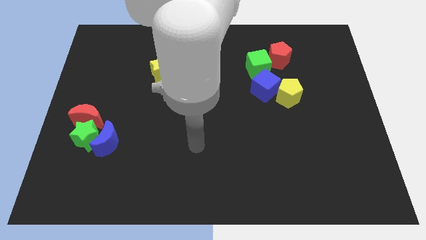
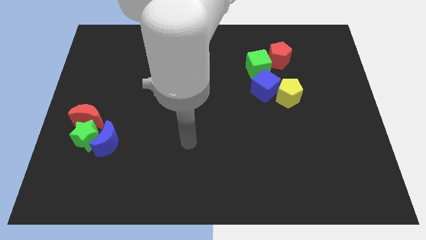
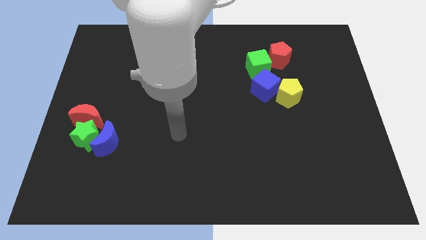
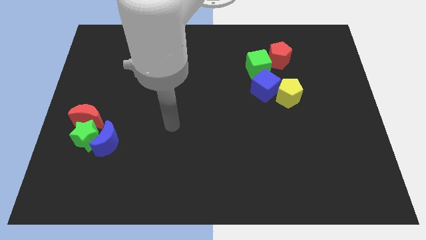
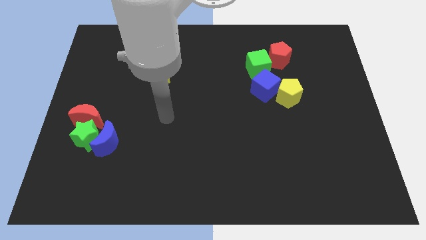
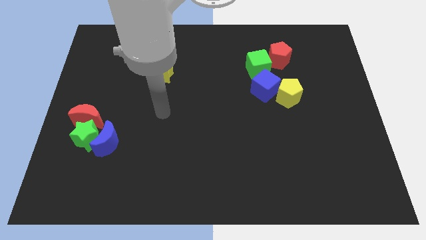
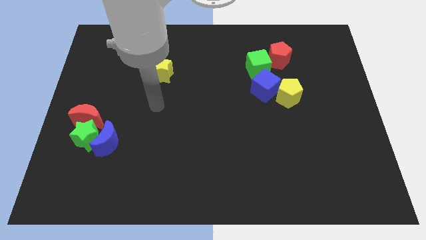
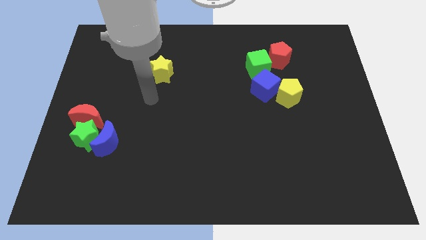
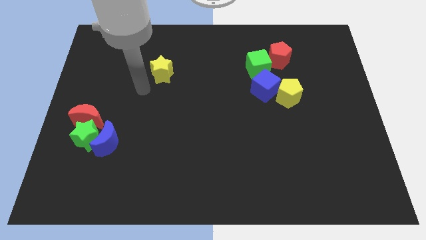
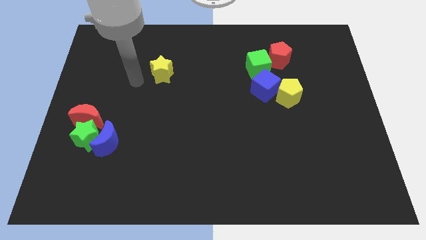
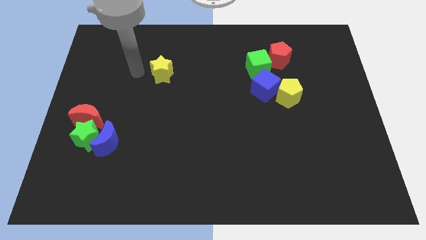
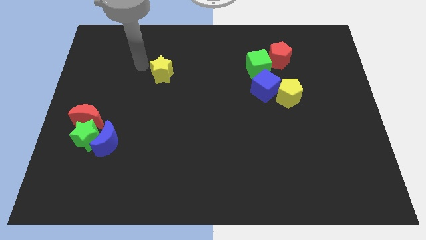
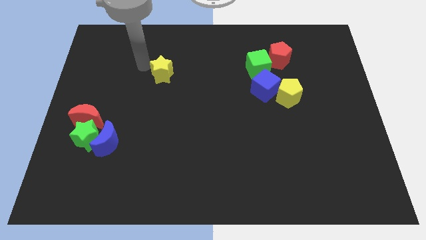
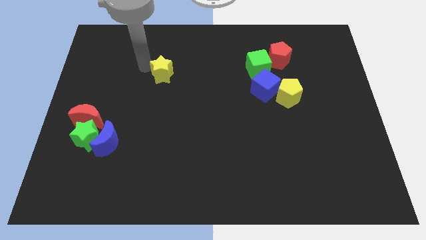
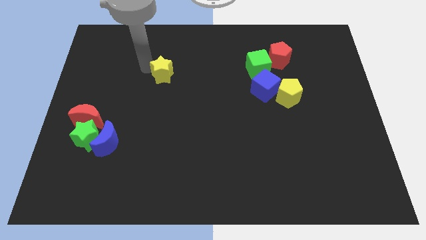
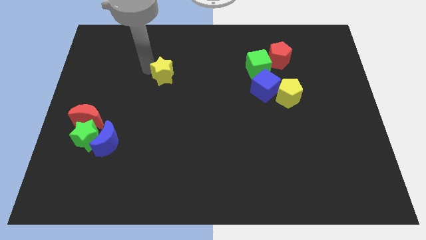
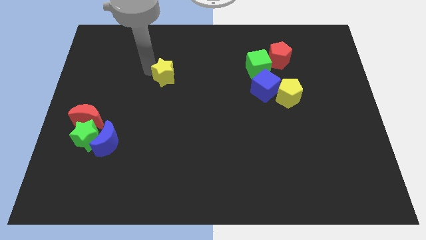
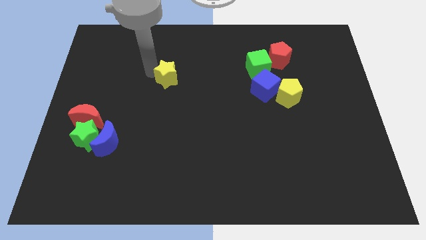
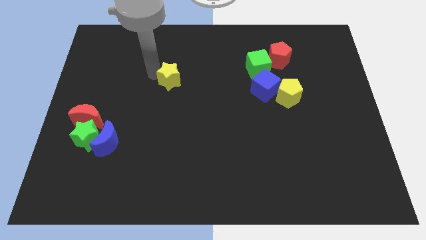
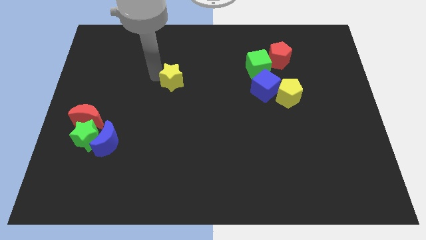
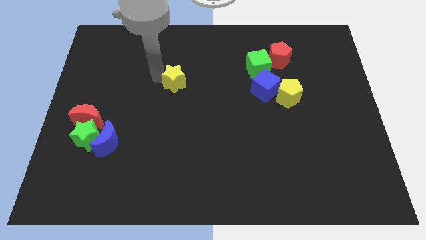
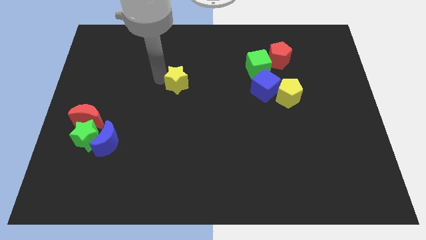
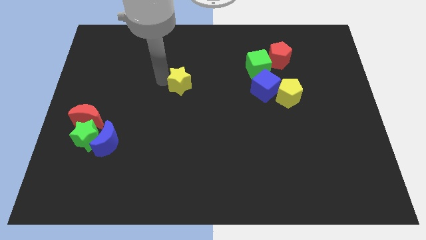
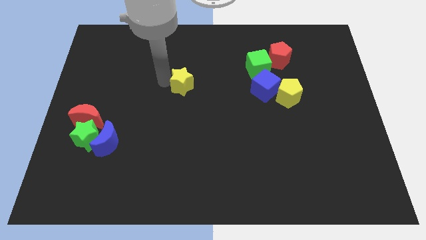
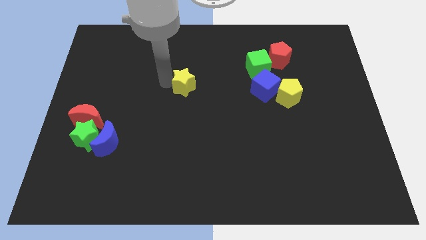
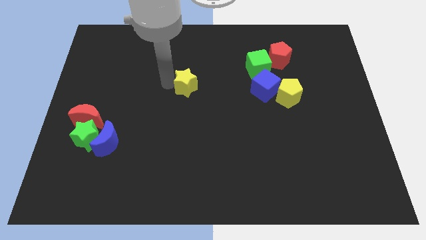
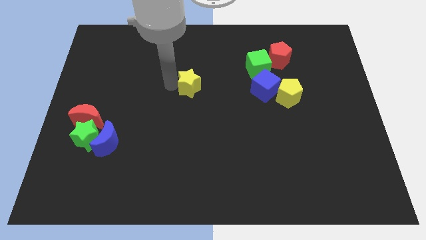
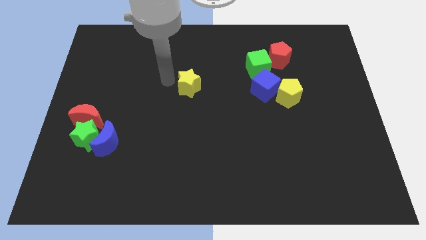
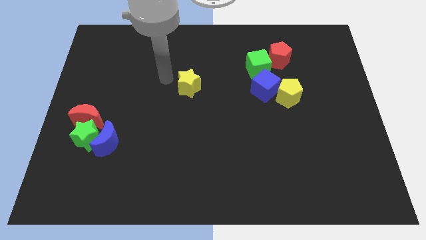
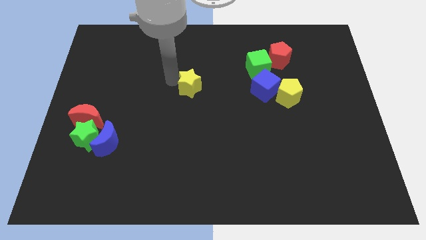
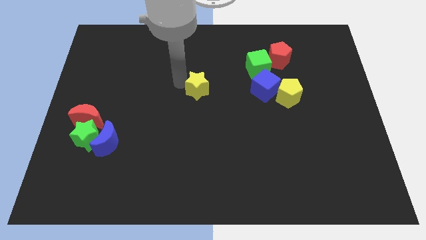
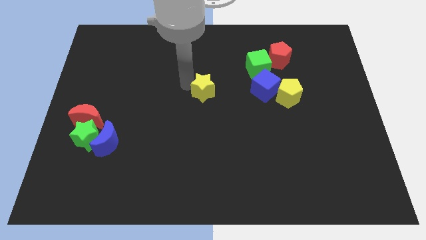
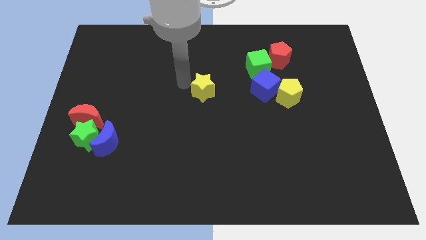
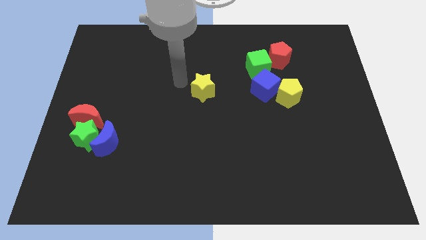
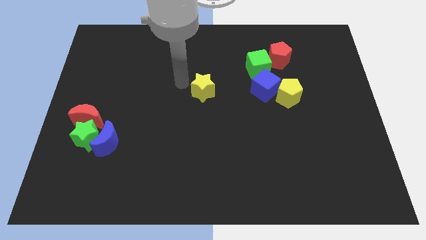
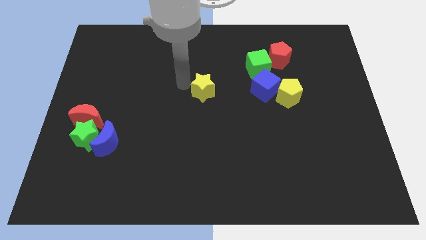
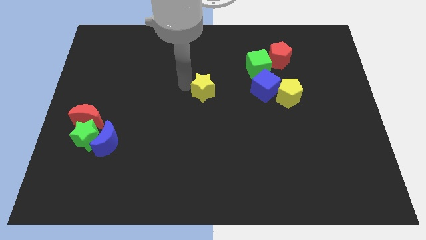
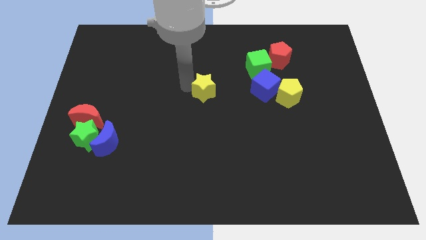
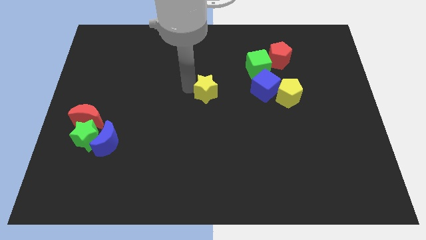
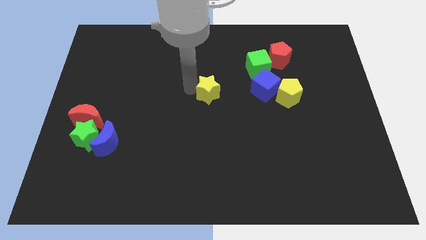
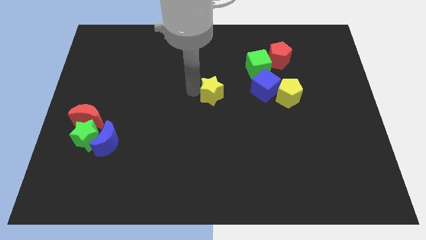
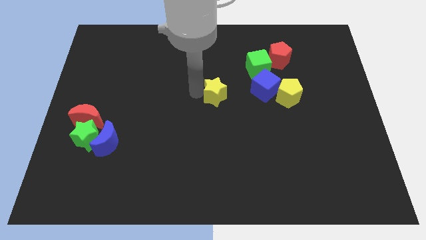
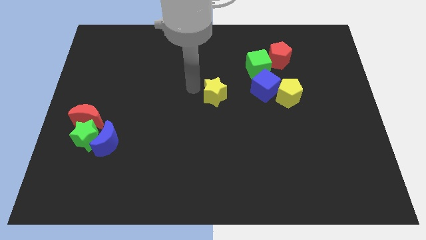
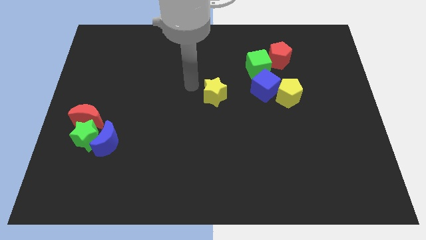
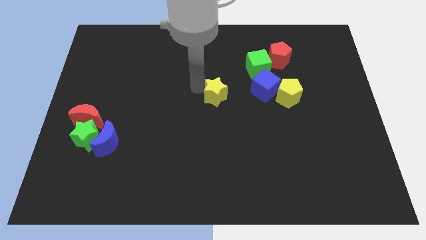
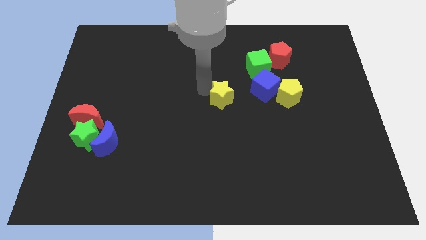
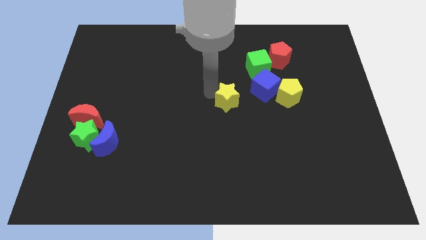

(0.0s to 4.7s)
move the yellow star to the bottom left side of the blue cube

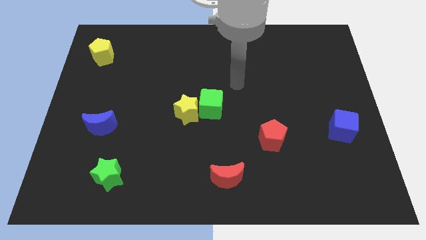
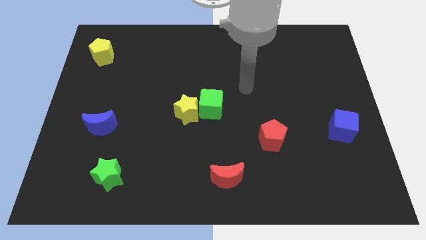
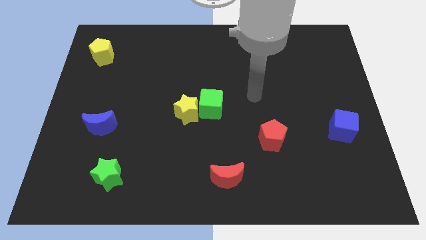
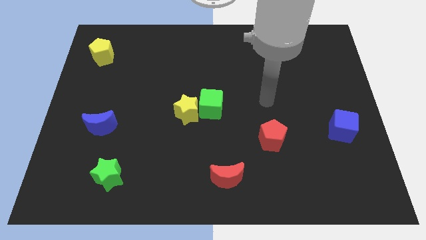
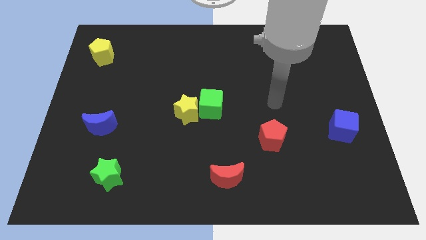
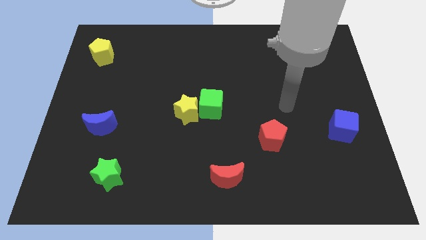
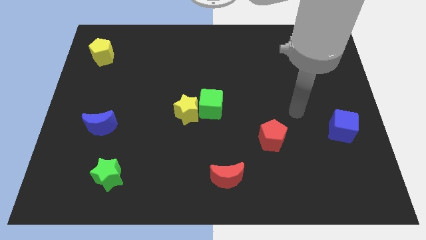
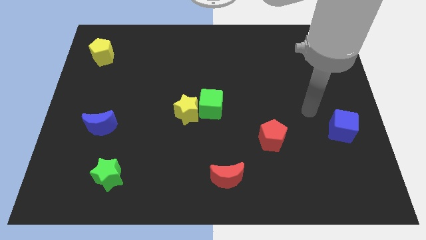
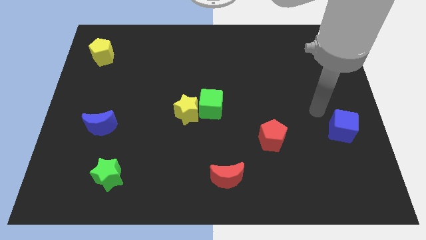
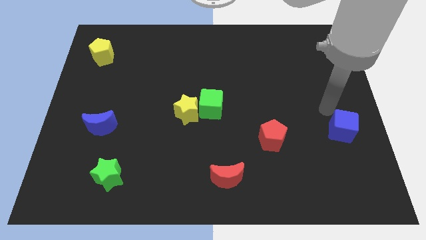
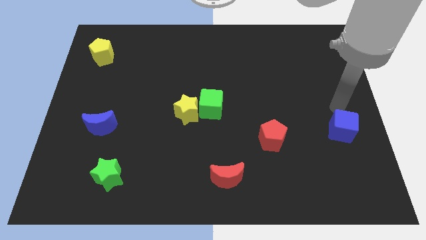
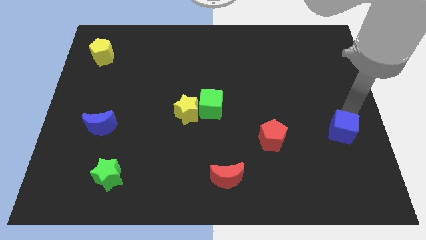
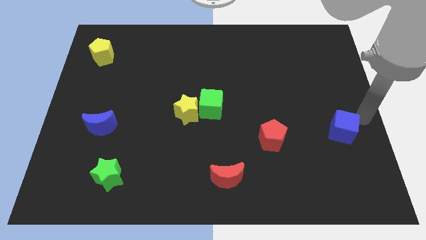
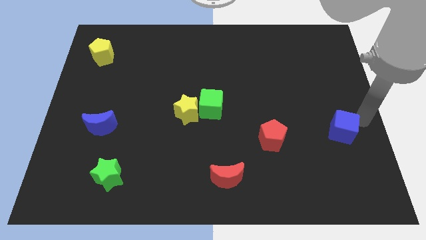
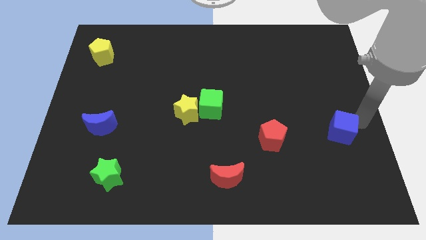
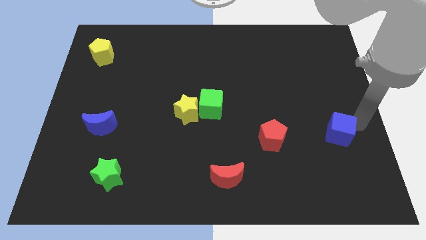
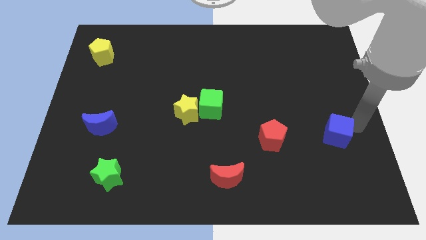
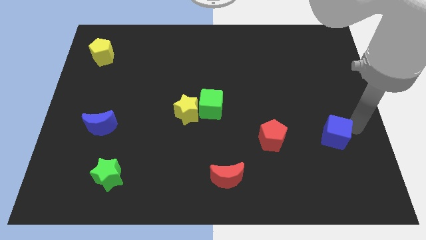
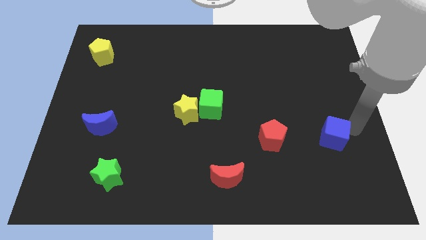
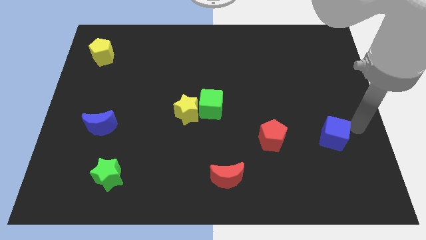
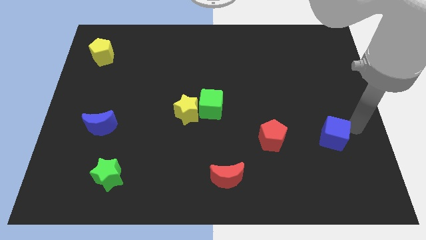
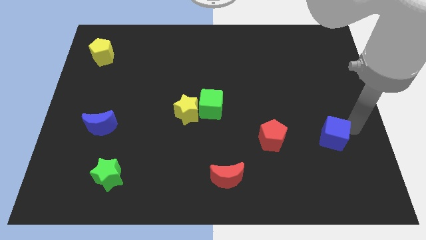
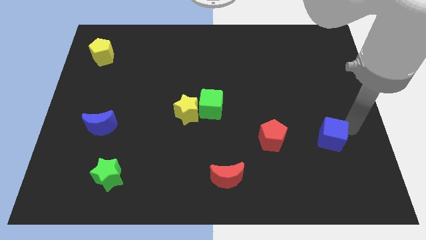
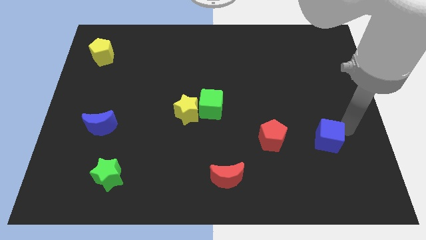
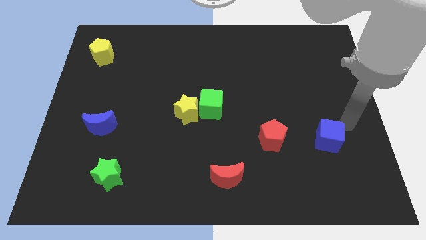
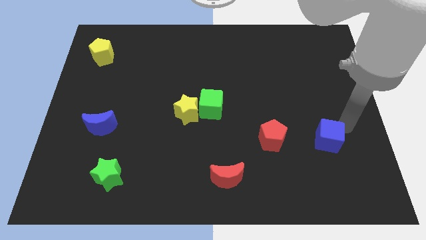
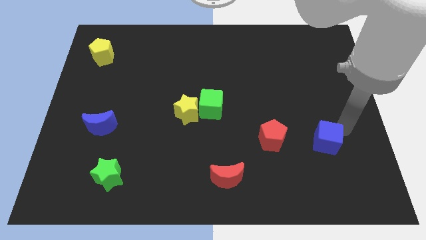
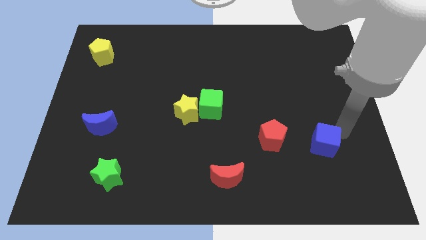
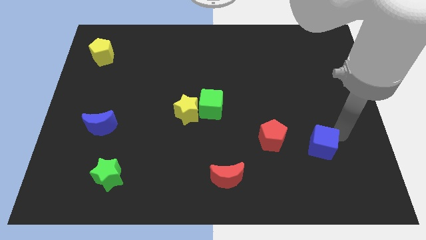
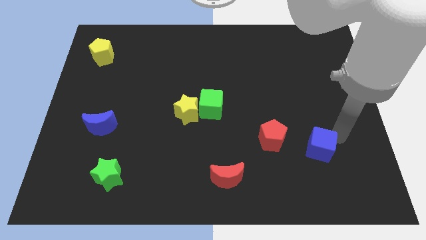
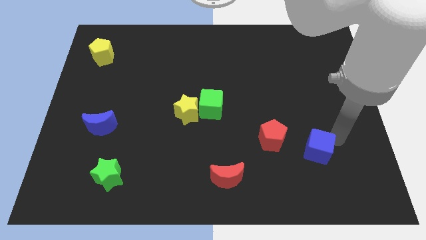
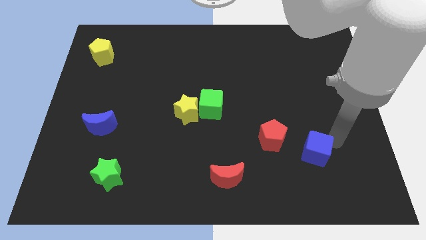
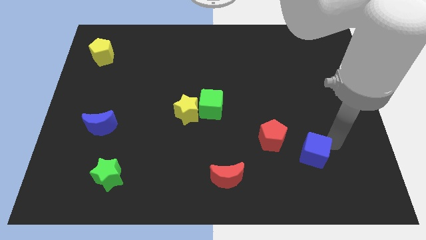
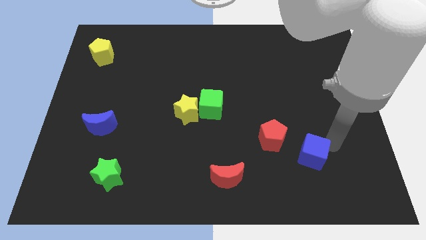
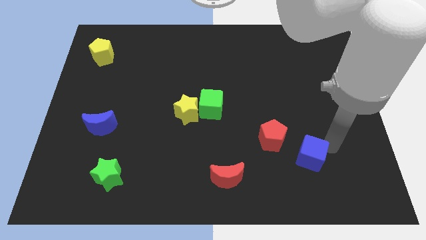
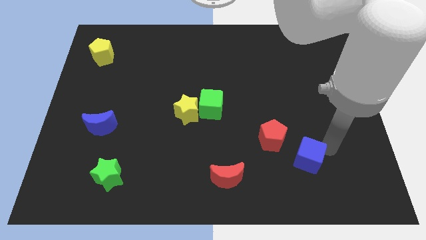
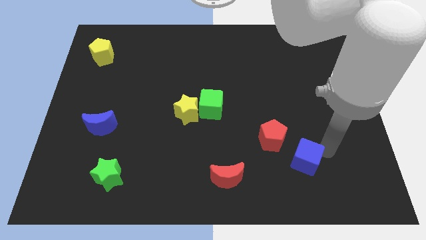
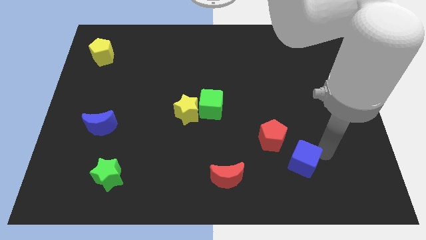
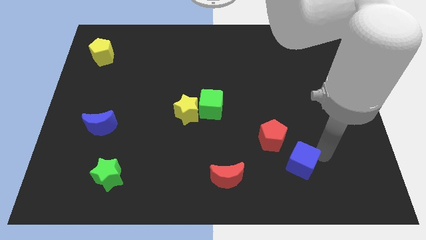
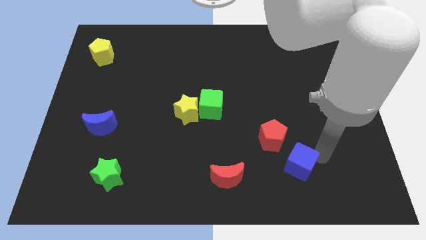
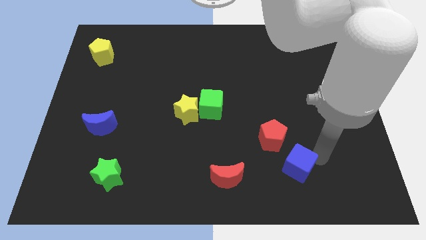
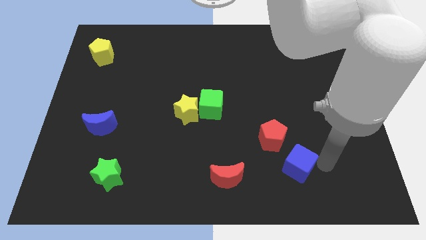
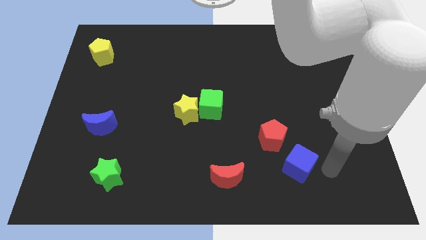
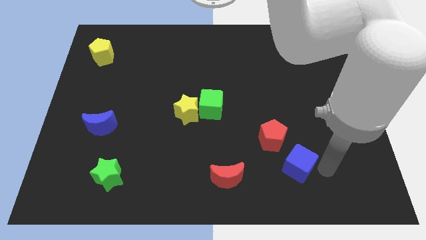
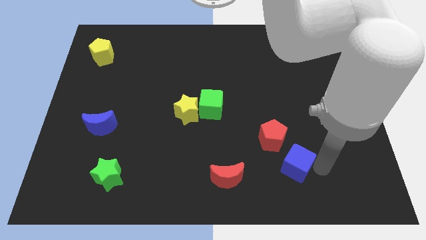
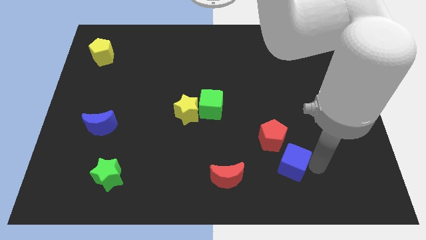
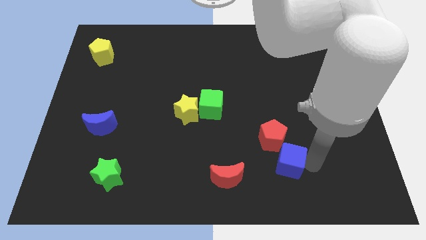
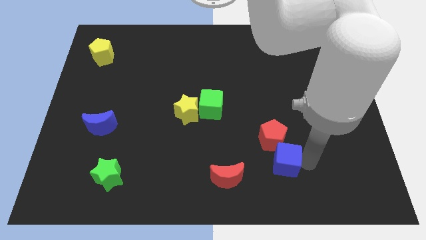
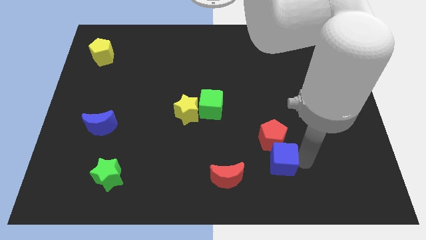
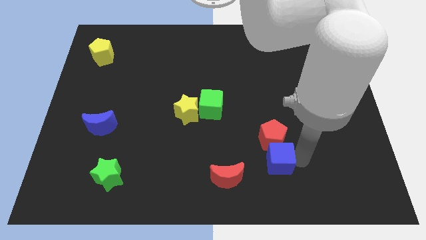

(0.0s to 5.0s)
push the blue cube to the bottom left of the red pentagon
